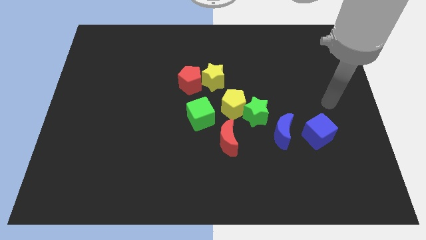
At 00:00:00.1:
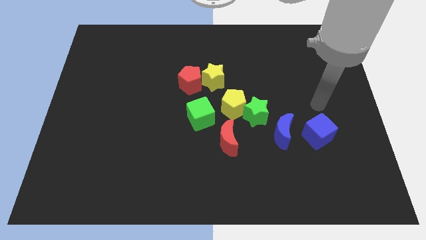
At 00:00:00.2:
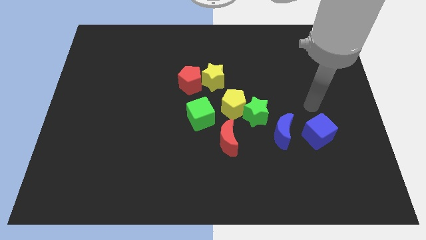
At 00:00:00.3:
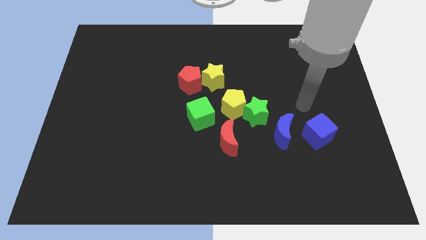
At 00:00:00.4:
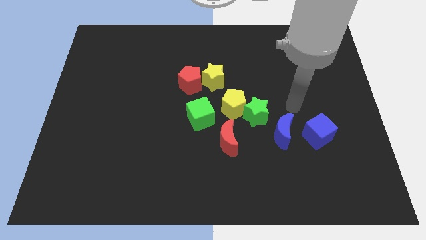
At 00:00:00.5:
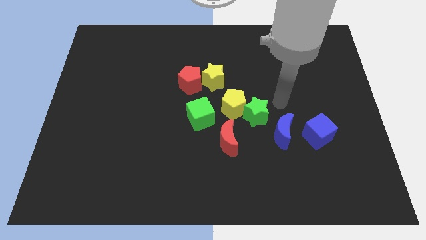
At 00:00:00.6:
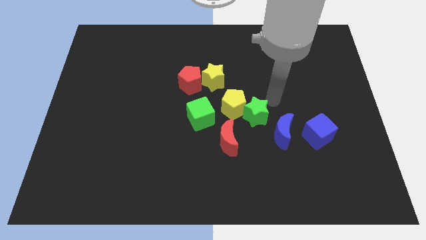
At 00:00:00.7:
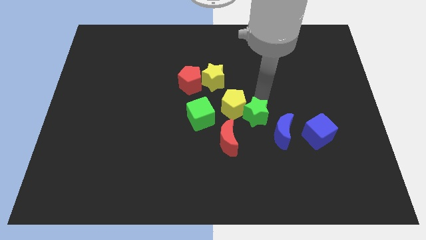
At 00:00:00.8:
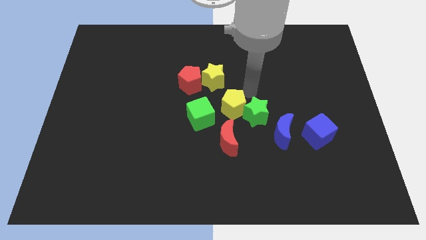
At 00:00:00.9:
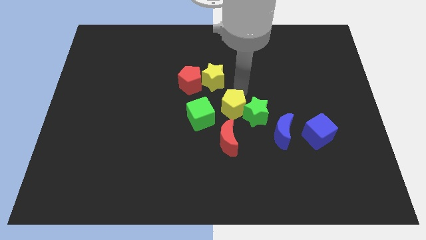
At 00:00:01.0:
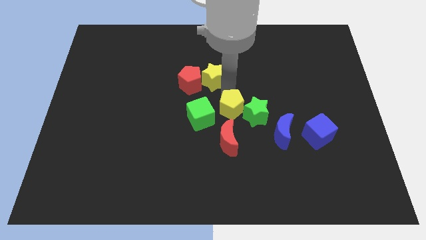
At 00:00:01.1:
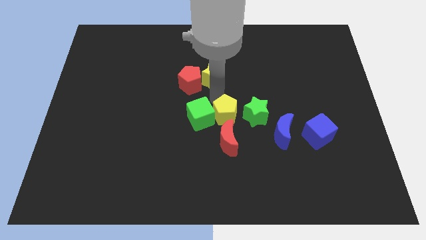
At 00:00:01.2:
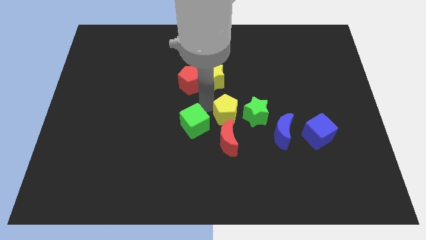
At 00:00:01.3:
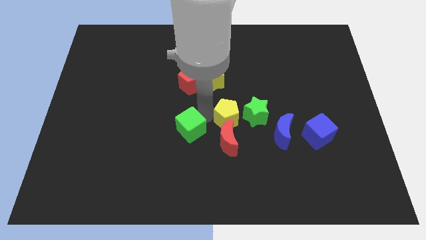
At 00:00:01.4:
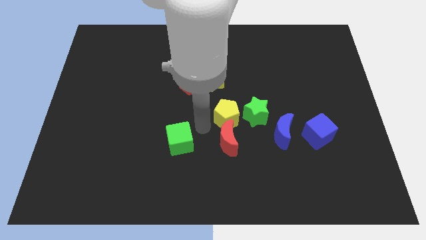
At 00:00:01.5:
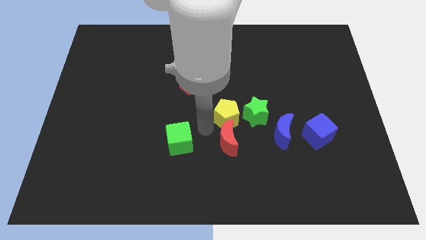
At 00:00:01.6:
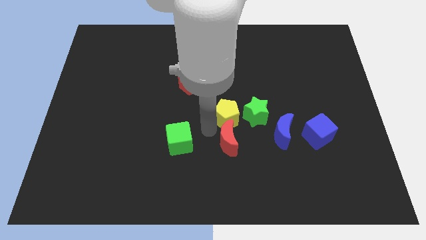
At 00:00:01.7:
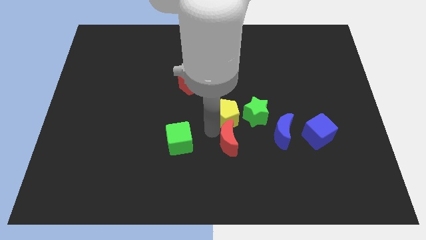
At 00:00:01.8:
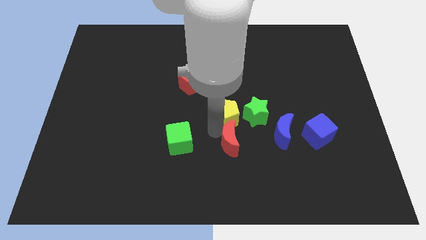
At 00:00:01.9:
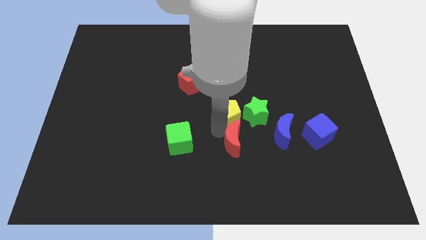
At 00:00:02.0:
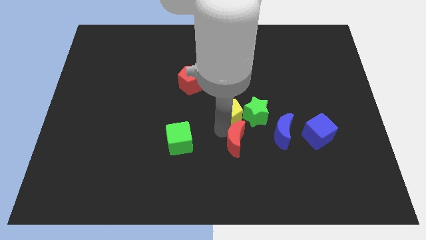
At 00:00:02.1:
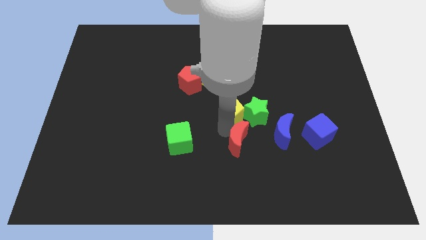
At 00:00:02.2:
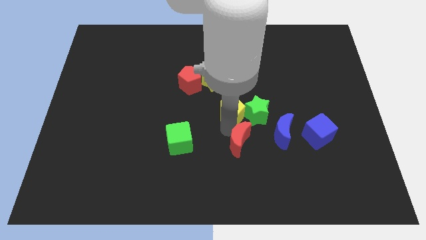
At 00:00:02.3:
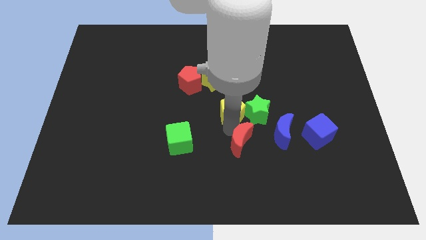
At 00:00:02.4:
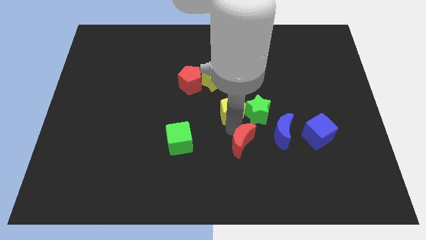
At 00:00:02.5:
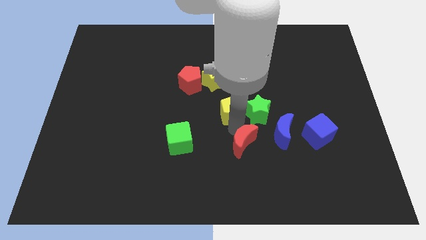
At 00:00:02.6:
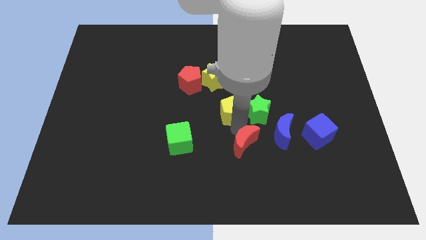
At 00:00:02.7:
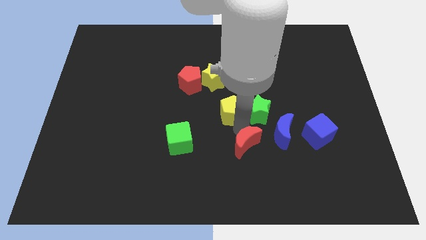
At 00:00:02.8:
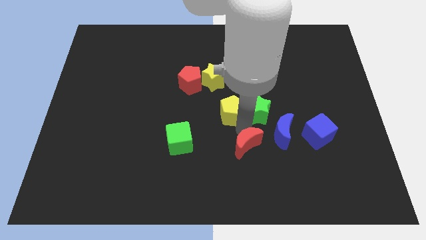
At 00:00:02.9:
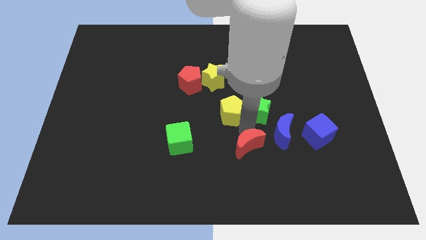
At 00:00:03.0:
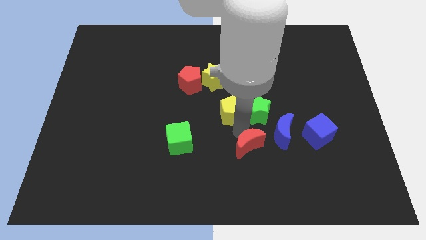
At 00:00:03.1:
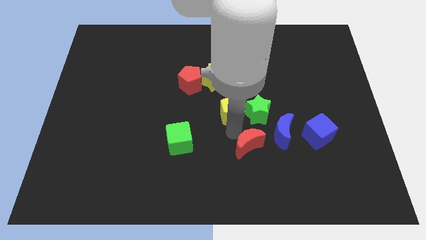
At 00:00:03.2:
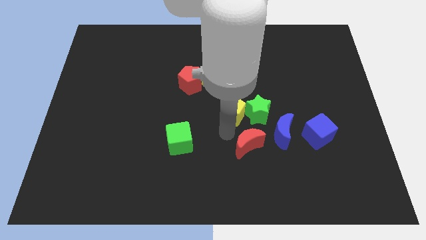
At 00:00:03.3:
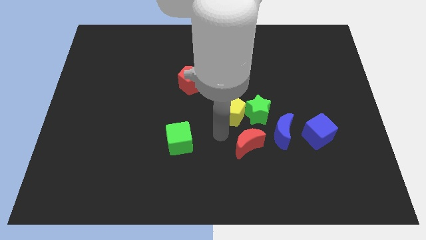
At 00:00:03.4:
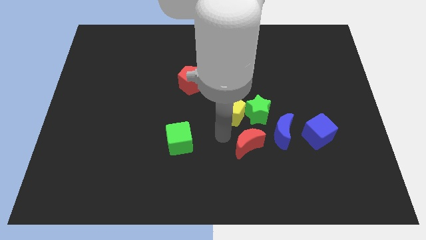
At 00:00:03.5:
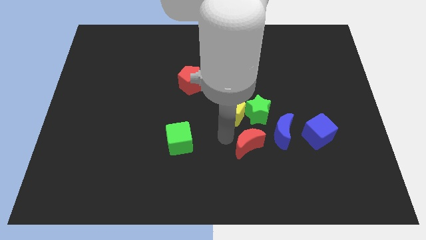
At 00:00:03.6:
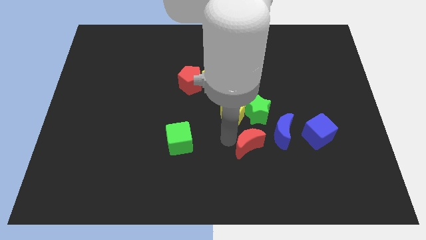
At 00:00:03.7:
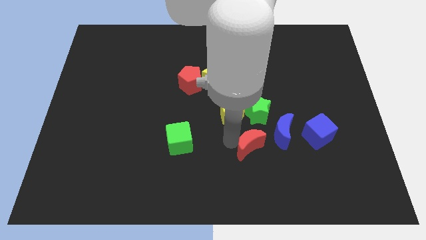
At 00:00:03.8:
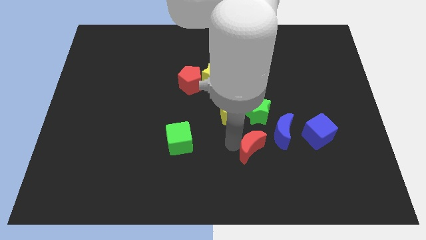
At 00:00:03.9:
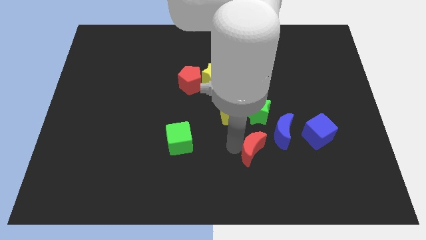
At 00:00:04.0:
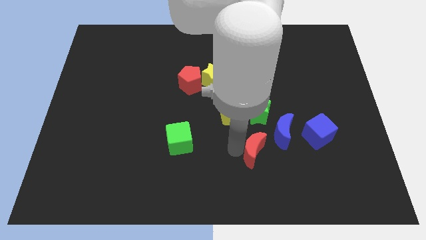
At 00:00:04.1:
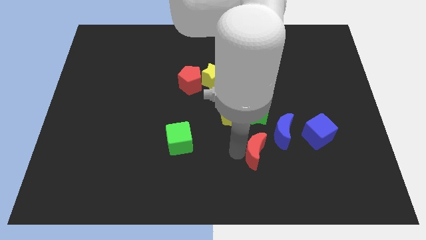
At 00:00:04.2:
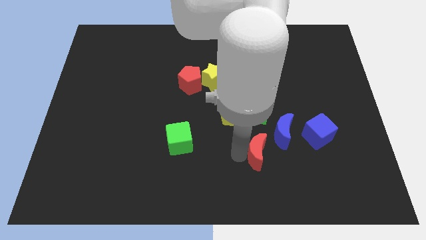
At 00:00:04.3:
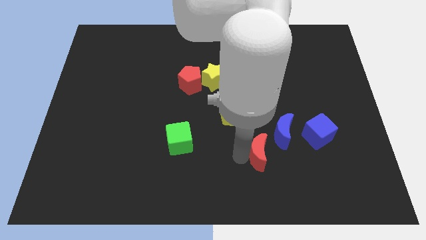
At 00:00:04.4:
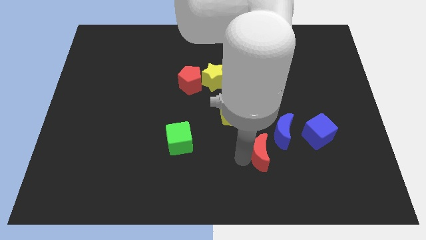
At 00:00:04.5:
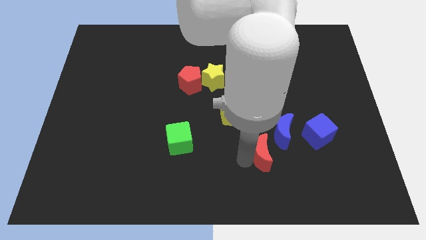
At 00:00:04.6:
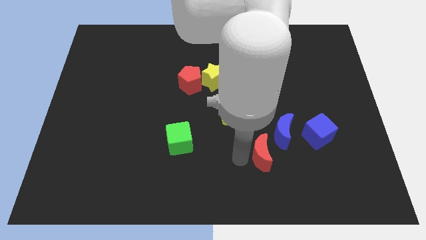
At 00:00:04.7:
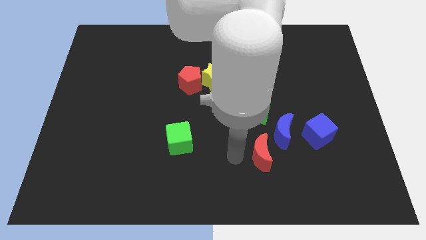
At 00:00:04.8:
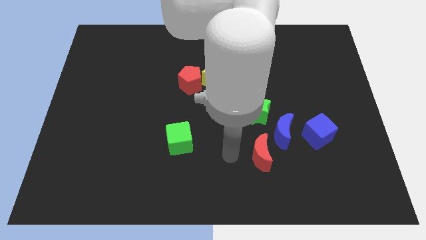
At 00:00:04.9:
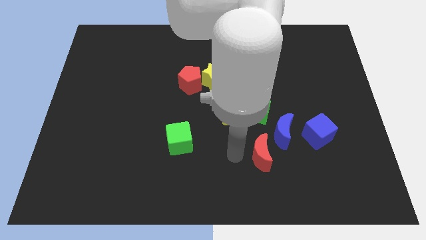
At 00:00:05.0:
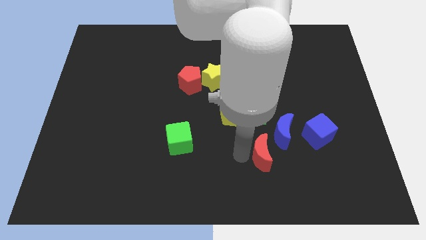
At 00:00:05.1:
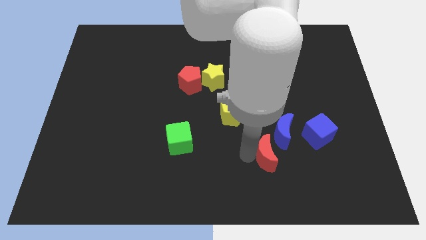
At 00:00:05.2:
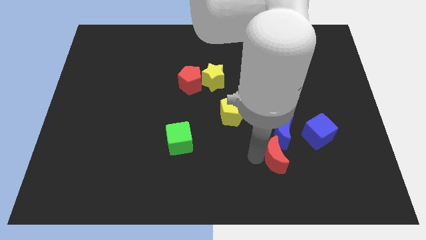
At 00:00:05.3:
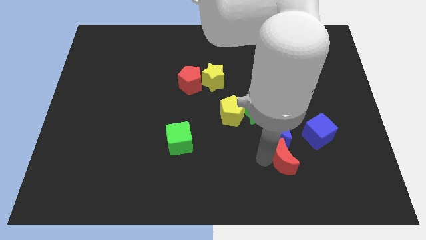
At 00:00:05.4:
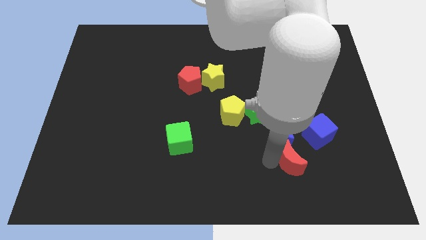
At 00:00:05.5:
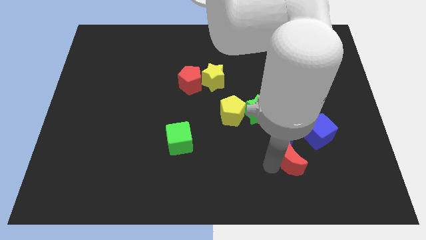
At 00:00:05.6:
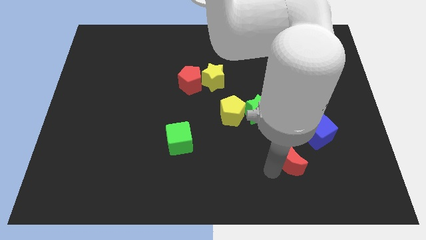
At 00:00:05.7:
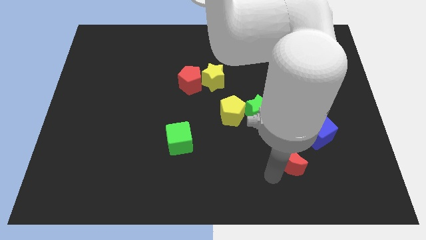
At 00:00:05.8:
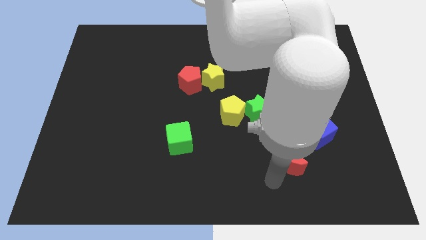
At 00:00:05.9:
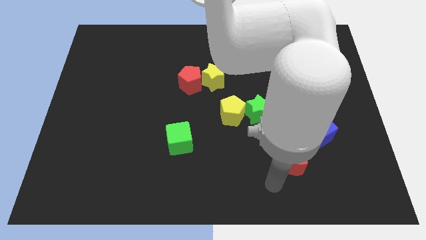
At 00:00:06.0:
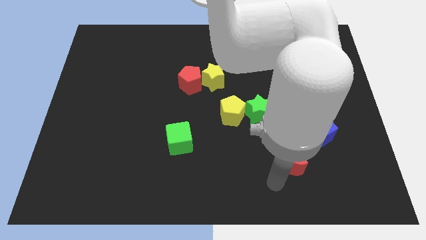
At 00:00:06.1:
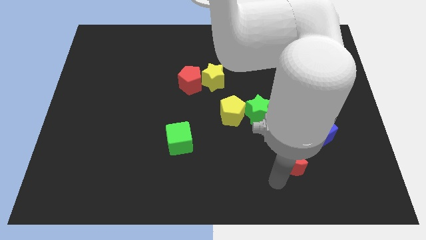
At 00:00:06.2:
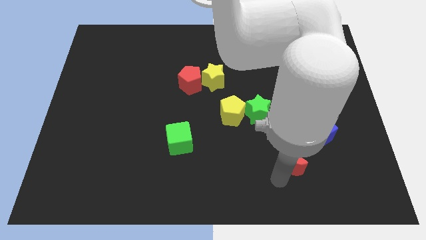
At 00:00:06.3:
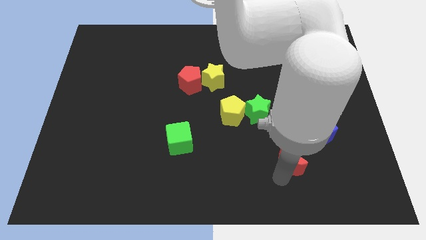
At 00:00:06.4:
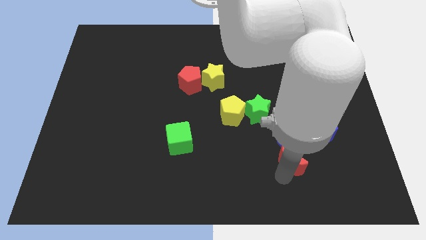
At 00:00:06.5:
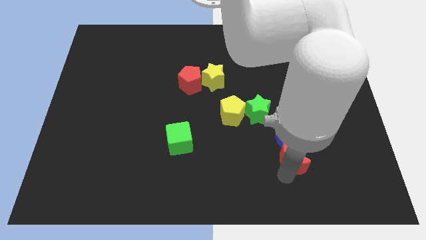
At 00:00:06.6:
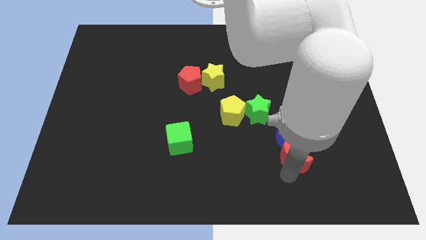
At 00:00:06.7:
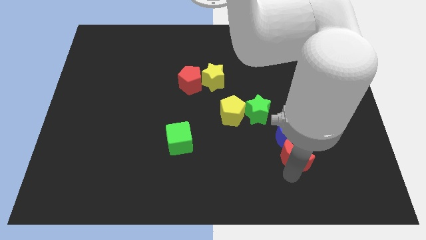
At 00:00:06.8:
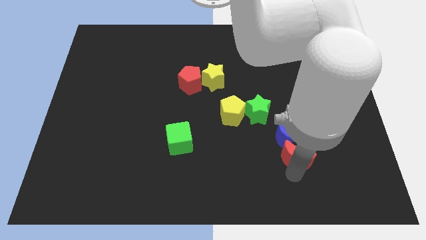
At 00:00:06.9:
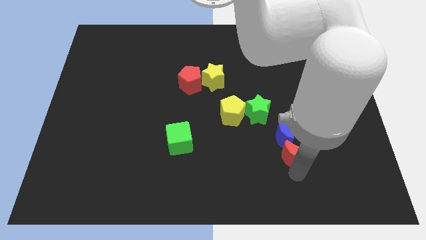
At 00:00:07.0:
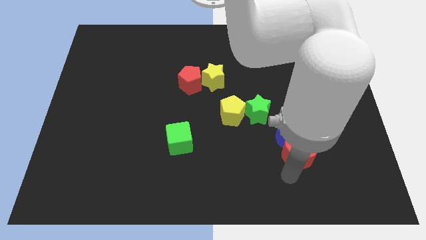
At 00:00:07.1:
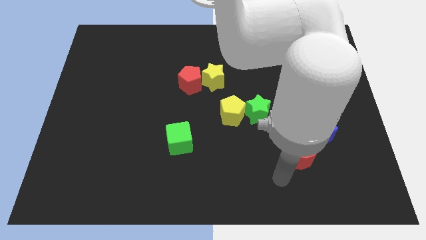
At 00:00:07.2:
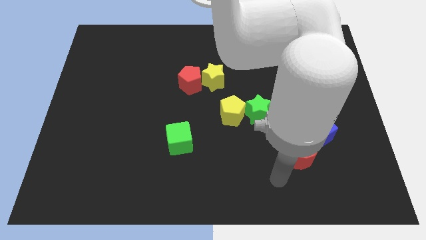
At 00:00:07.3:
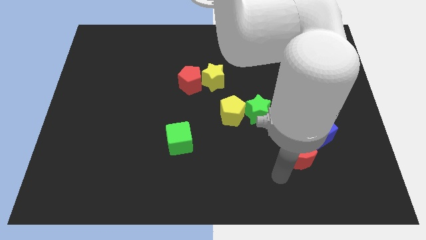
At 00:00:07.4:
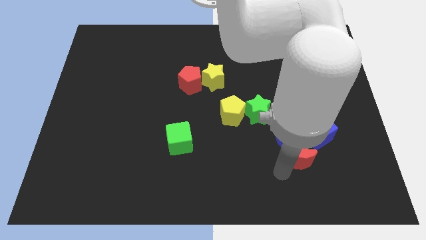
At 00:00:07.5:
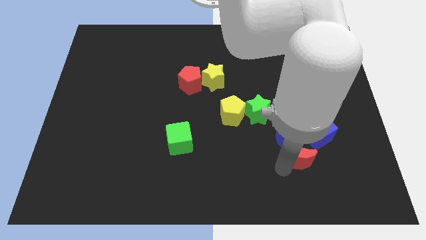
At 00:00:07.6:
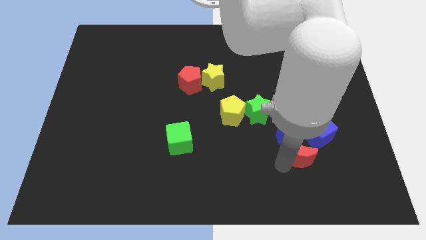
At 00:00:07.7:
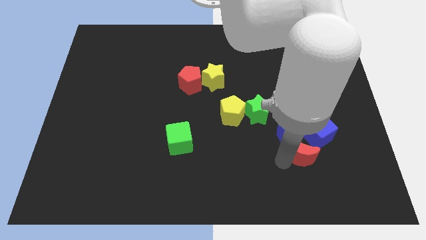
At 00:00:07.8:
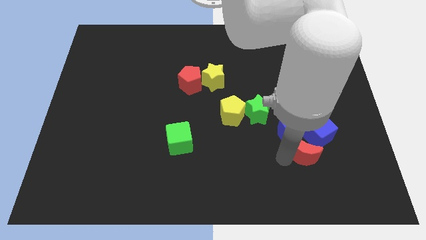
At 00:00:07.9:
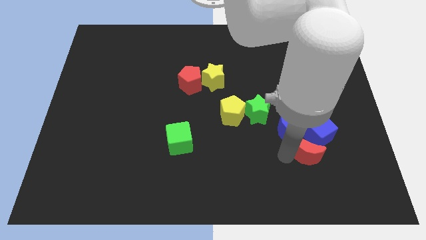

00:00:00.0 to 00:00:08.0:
put the red moon towards the blue cube
